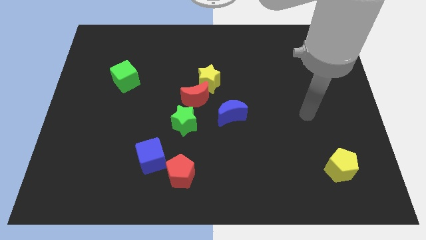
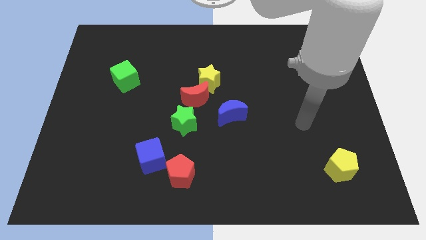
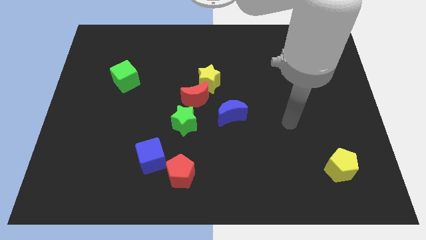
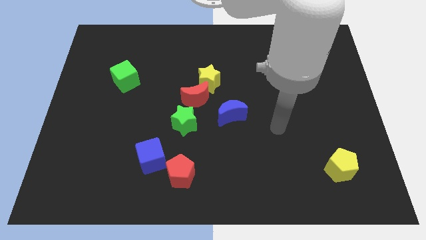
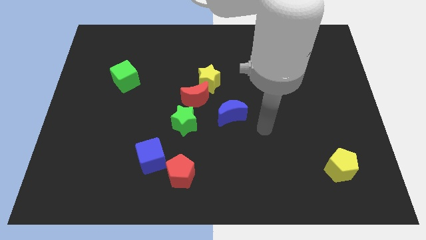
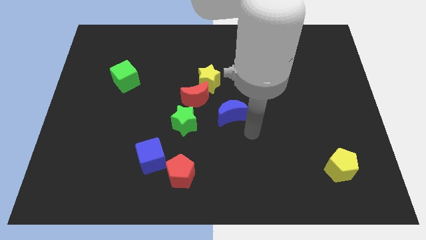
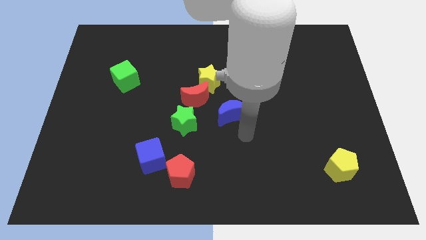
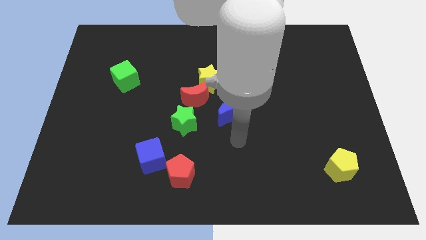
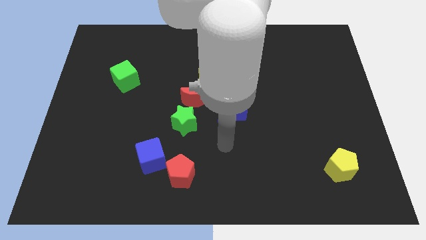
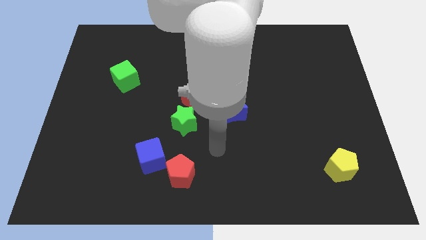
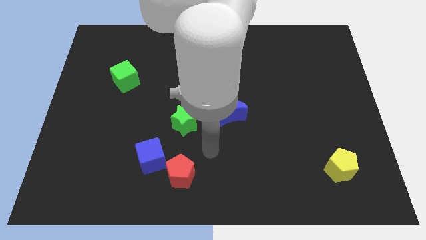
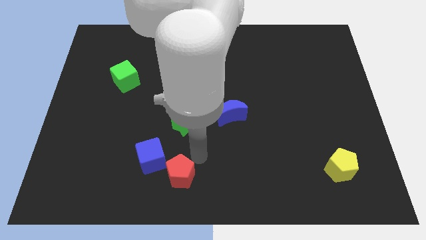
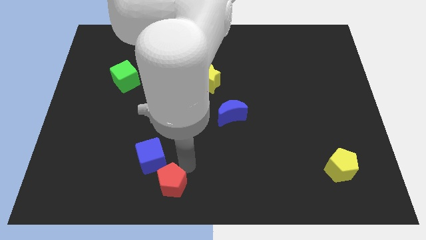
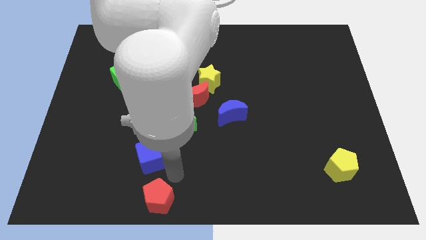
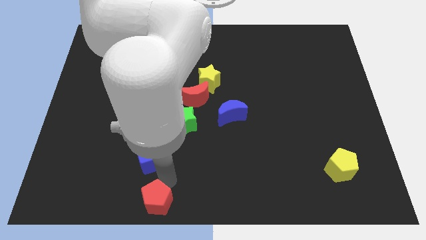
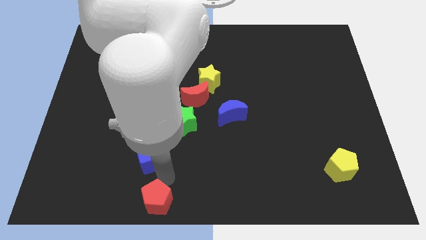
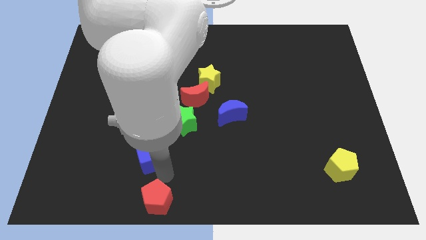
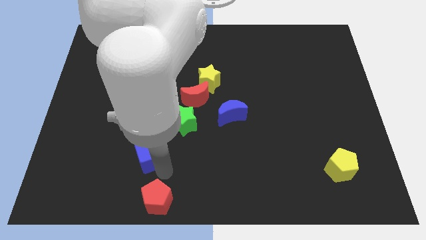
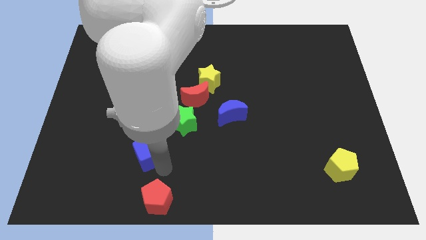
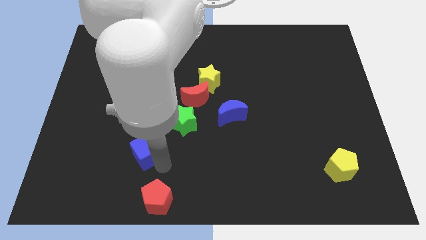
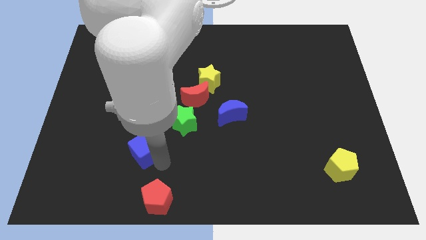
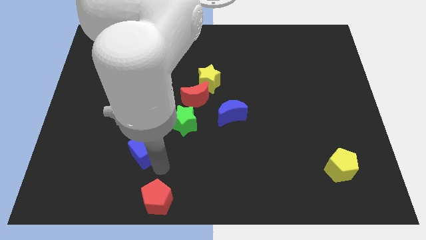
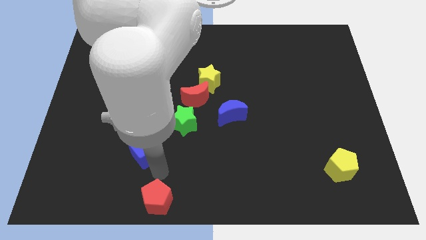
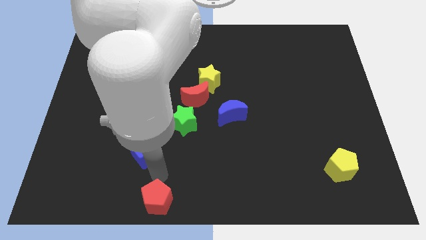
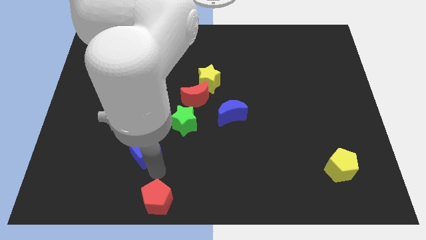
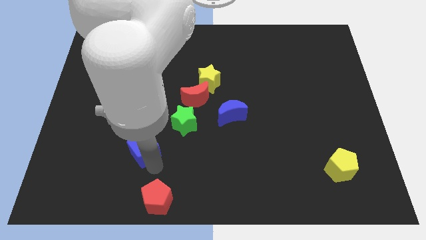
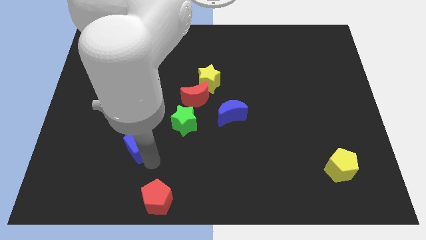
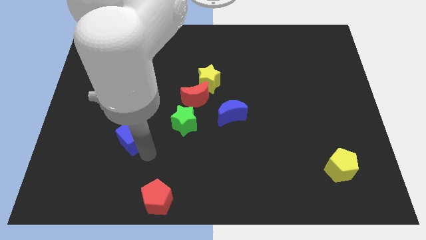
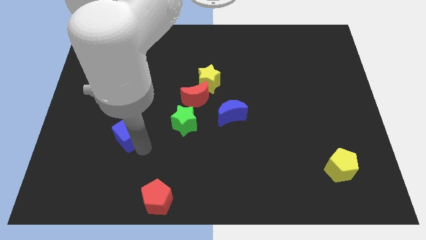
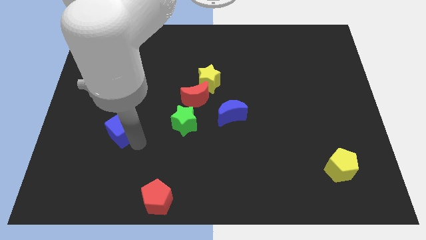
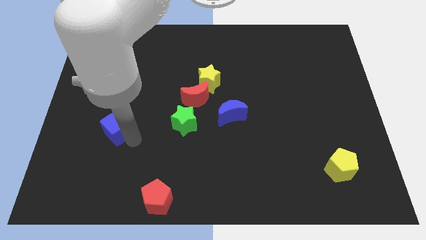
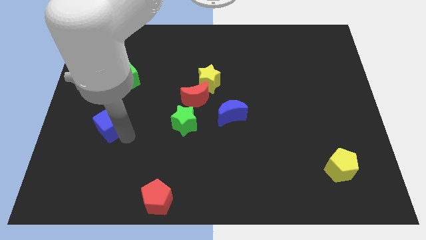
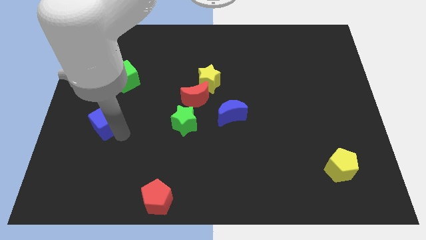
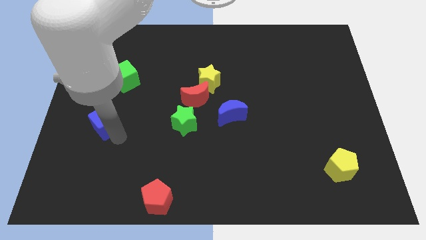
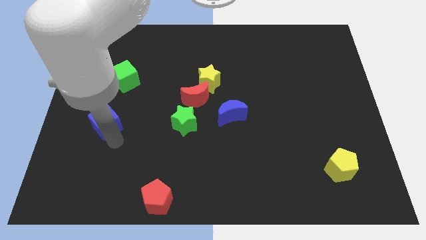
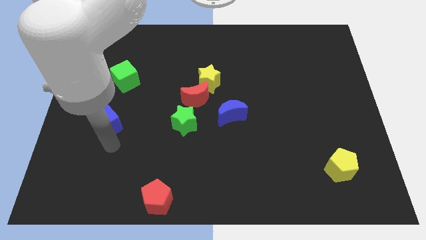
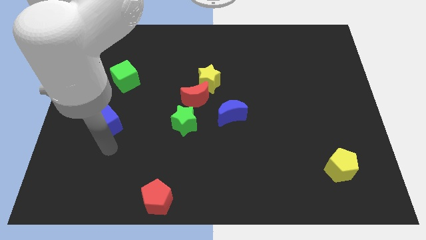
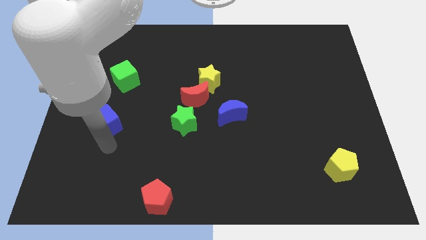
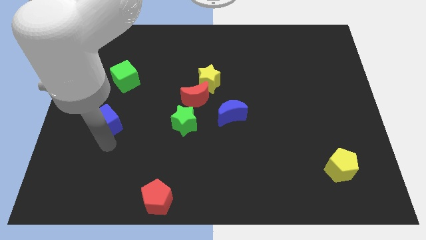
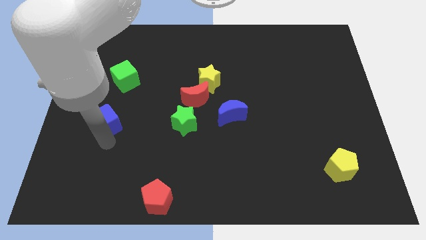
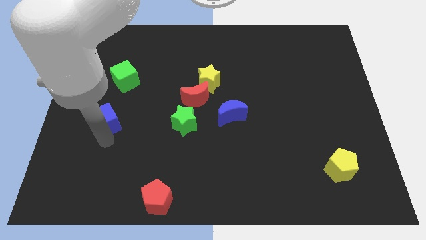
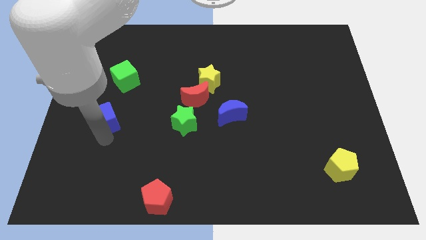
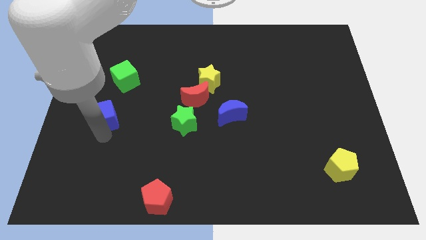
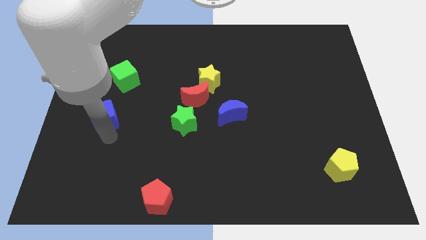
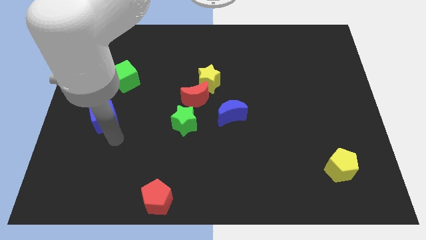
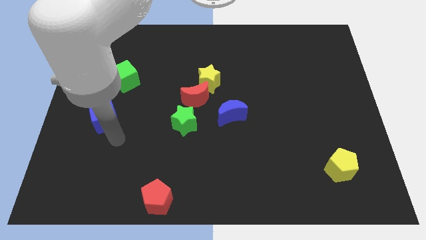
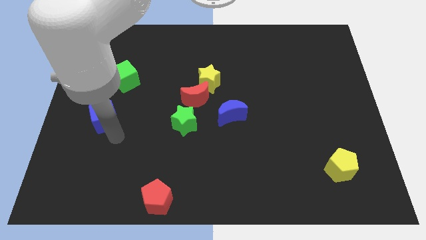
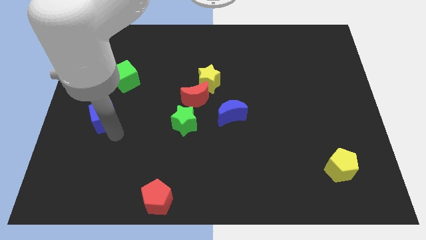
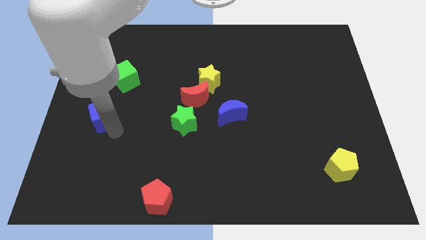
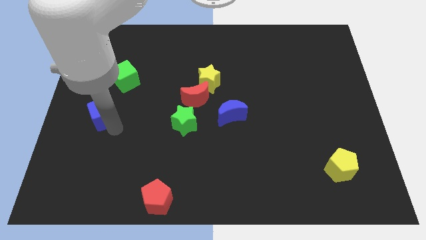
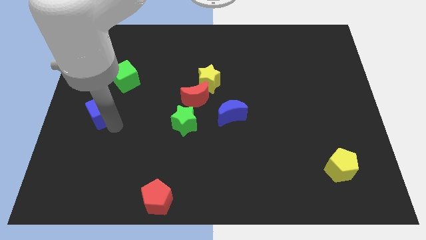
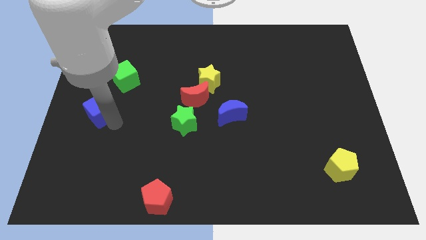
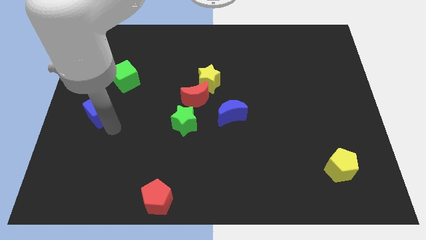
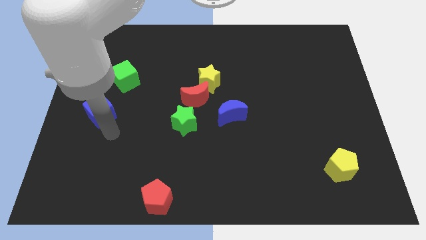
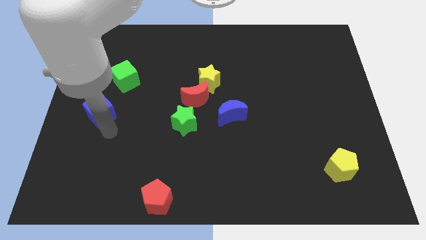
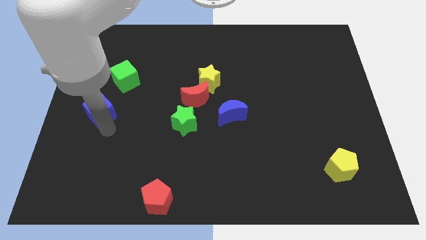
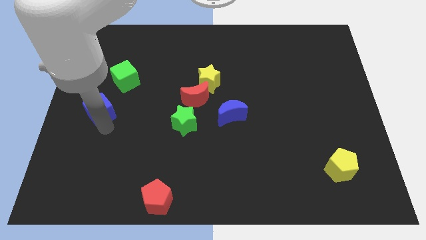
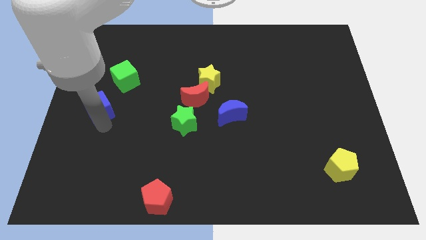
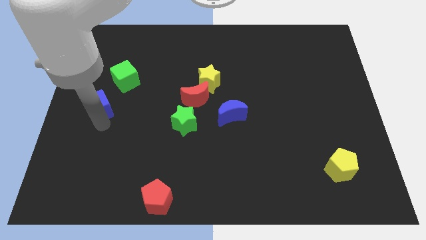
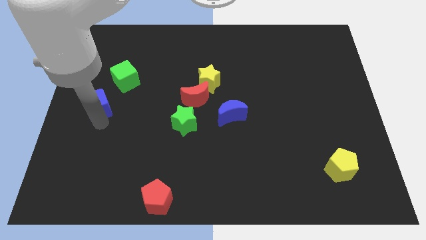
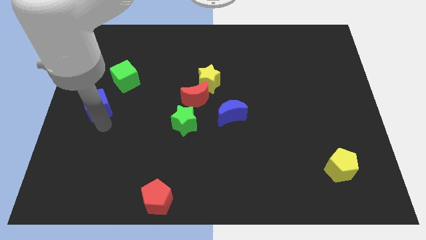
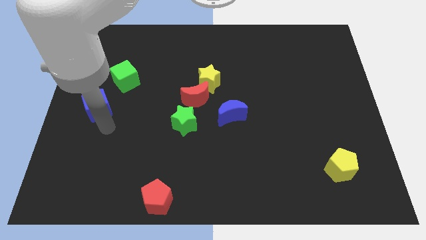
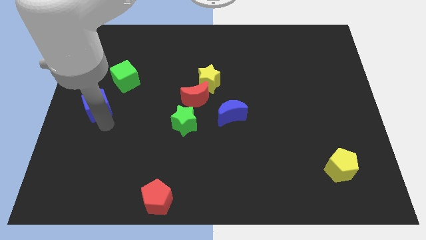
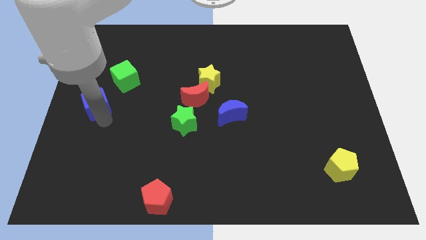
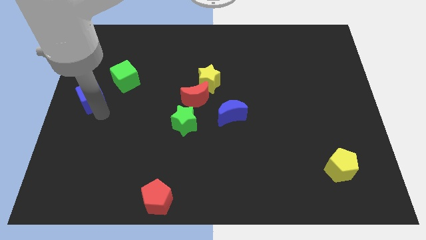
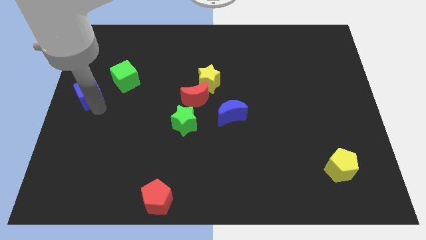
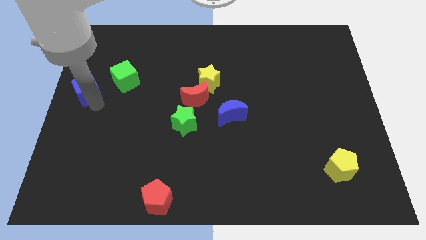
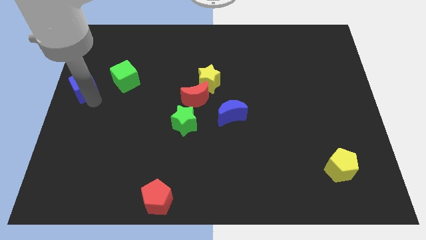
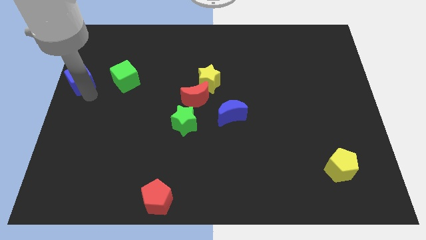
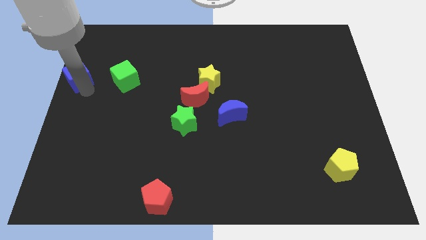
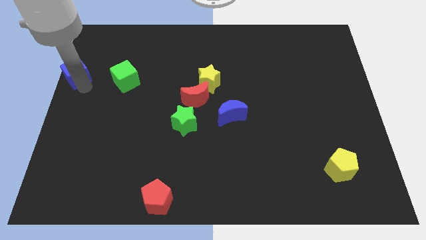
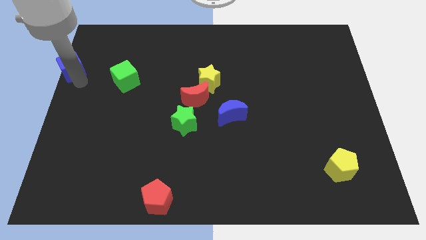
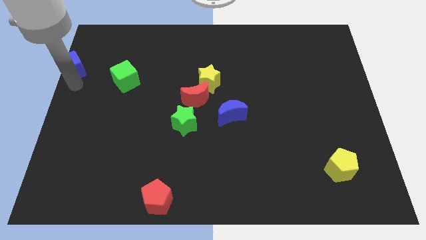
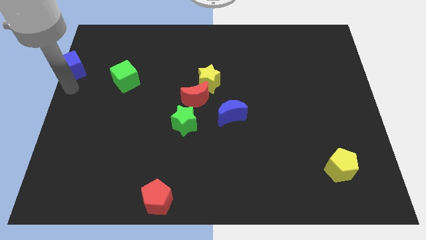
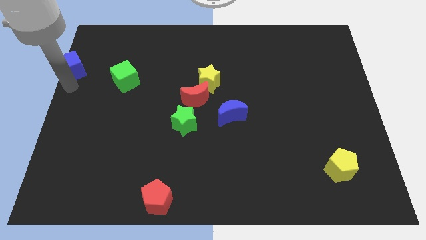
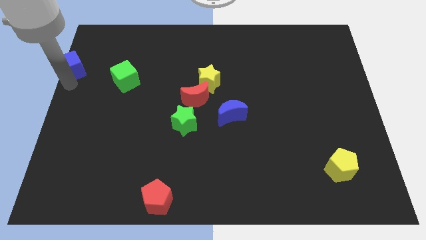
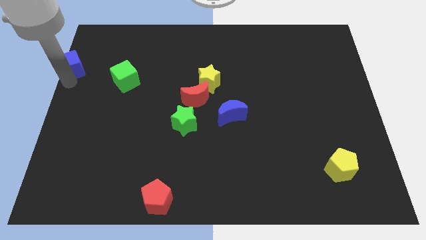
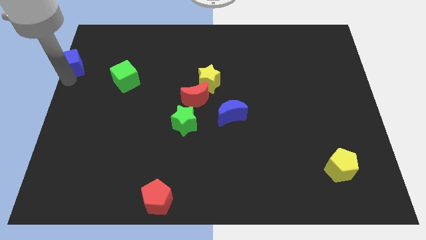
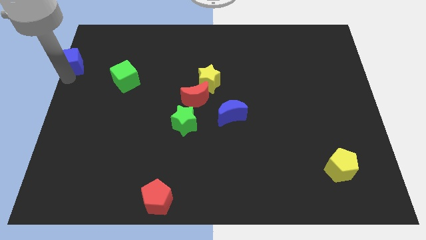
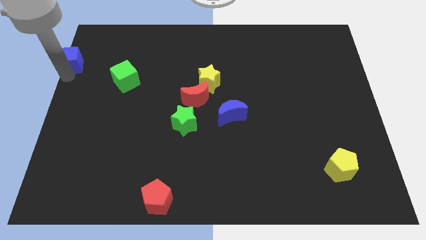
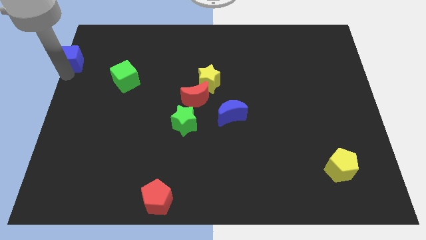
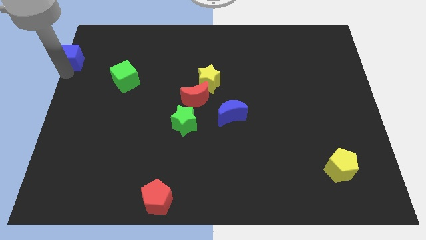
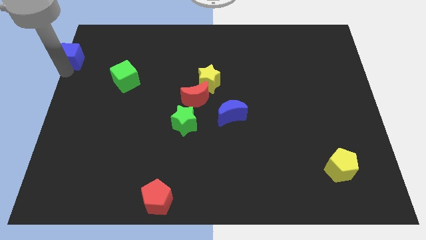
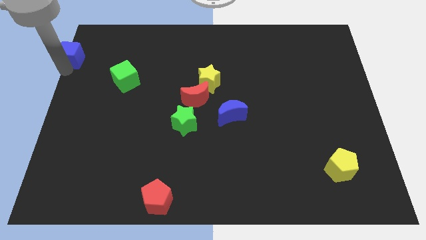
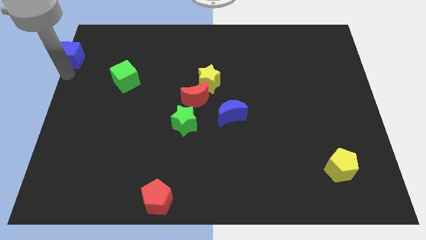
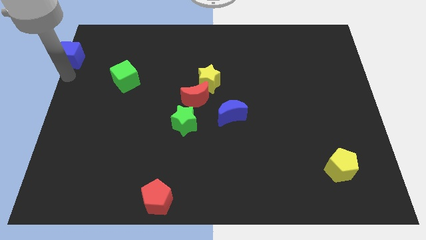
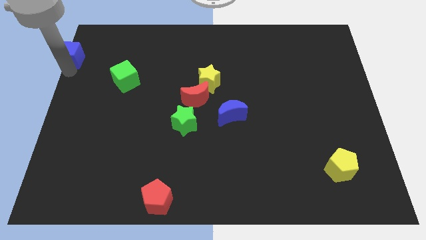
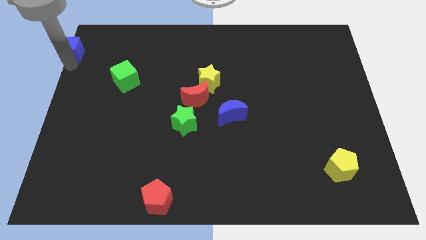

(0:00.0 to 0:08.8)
put the blue cube to the upper left corner
